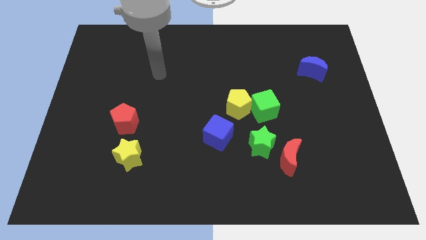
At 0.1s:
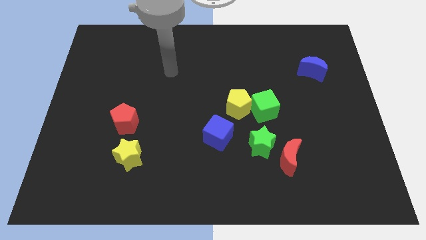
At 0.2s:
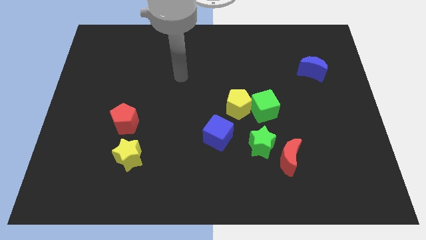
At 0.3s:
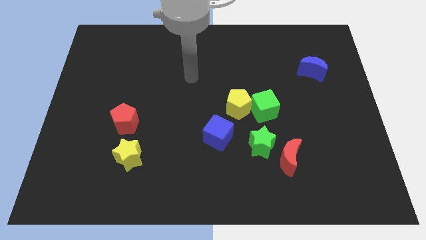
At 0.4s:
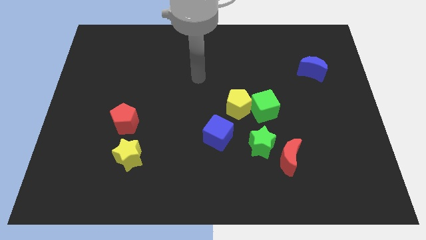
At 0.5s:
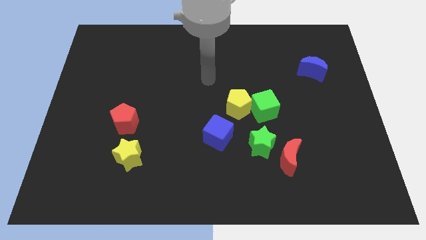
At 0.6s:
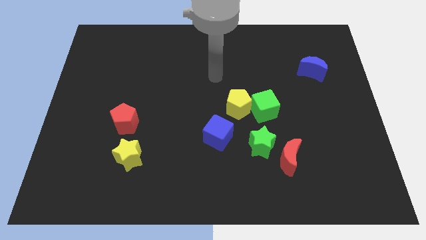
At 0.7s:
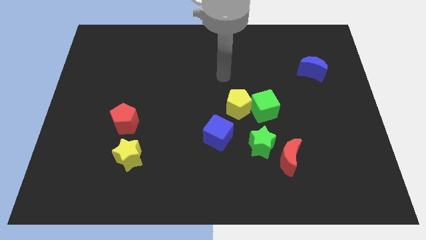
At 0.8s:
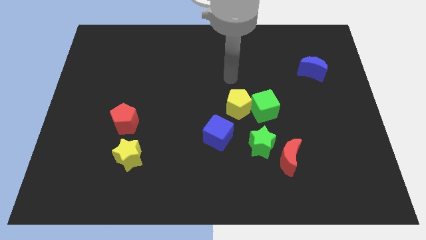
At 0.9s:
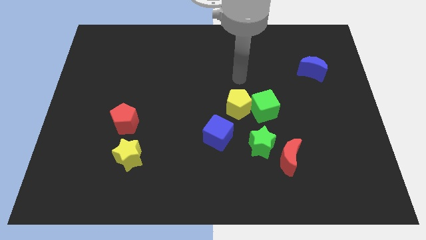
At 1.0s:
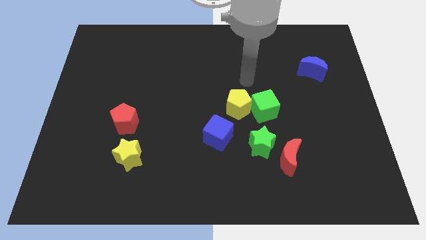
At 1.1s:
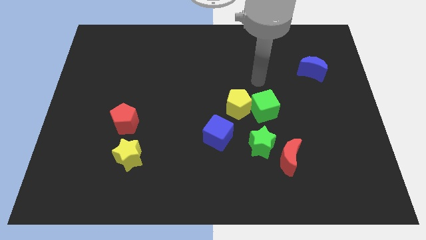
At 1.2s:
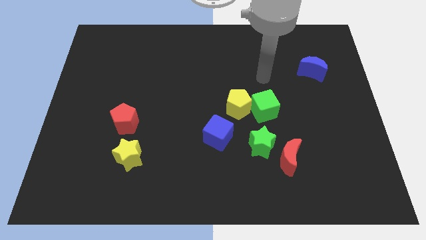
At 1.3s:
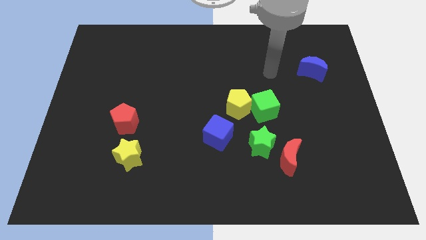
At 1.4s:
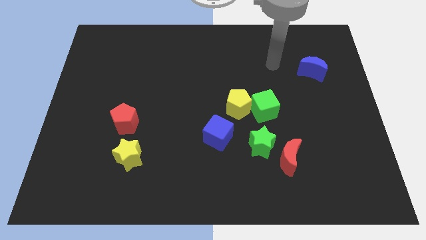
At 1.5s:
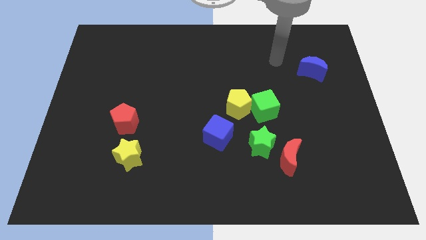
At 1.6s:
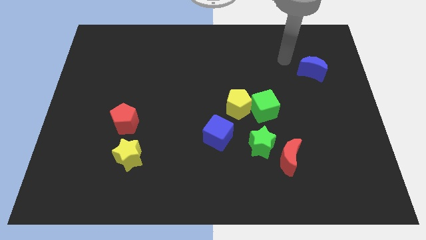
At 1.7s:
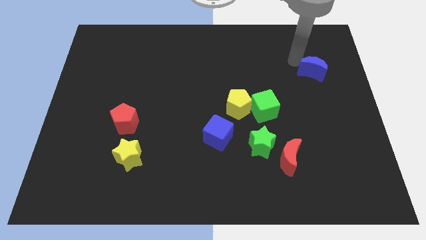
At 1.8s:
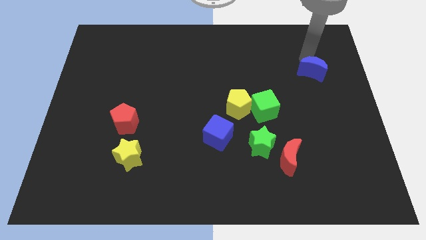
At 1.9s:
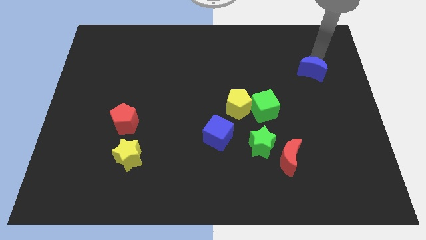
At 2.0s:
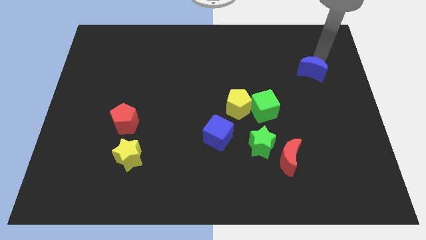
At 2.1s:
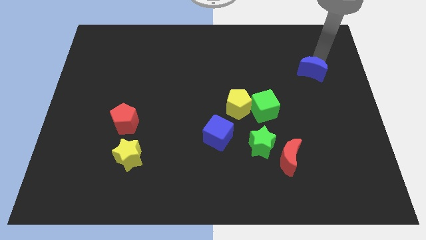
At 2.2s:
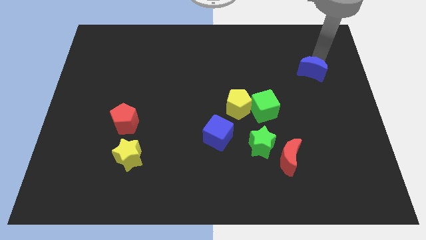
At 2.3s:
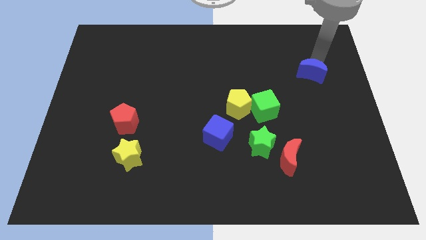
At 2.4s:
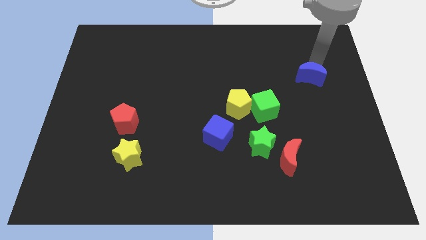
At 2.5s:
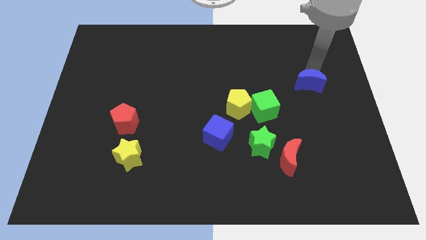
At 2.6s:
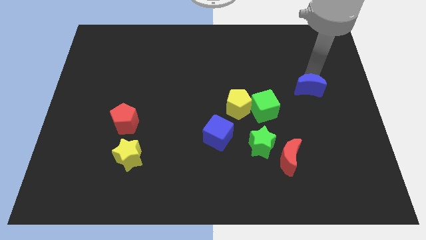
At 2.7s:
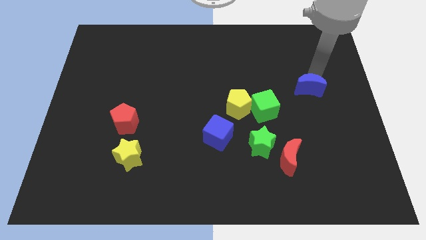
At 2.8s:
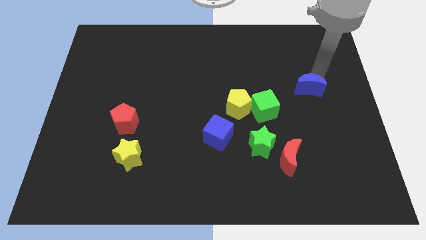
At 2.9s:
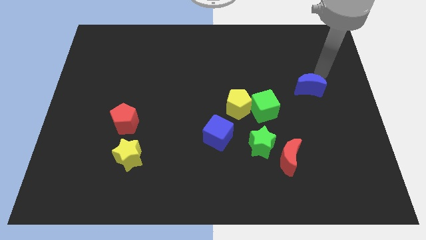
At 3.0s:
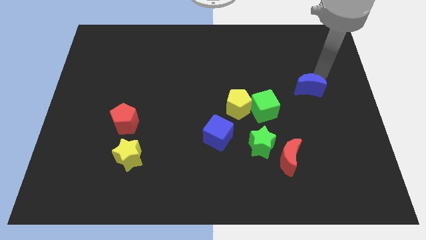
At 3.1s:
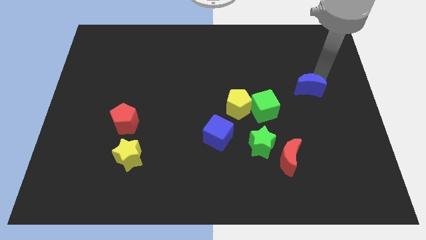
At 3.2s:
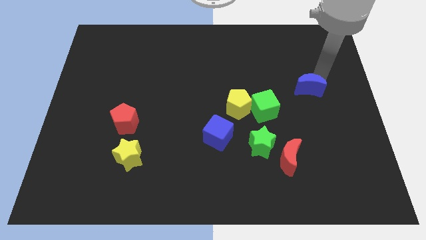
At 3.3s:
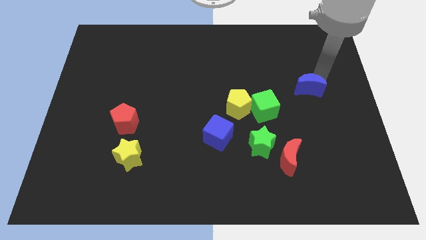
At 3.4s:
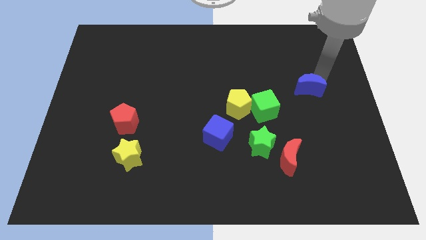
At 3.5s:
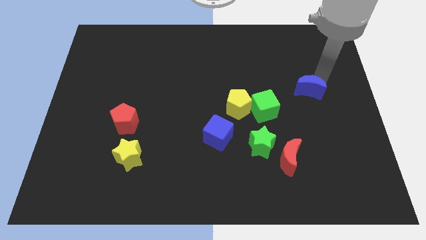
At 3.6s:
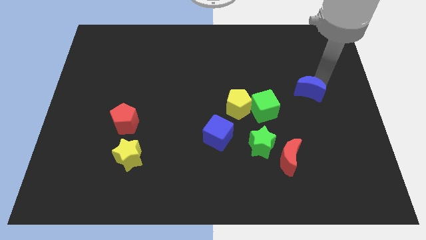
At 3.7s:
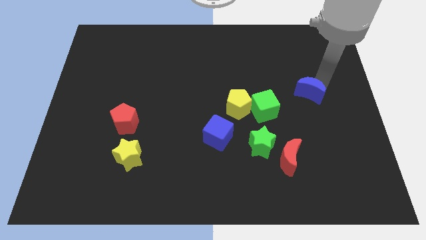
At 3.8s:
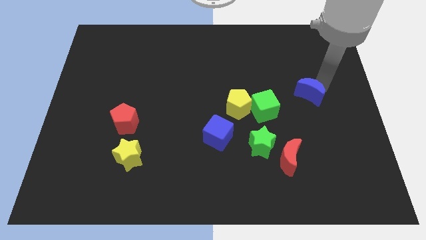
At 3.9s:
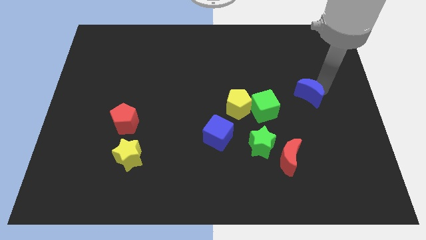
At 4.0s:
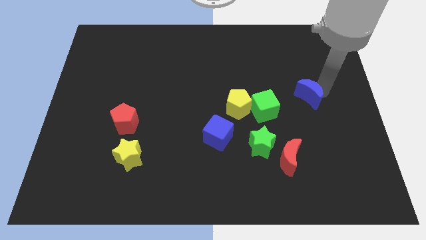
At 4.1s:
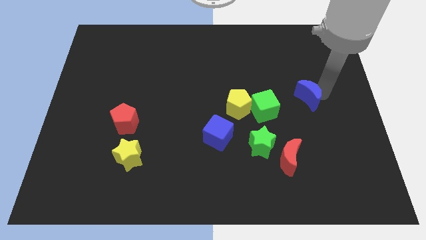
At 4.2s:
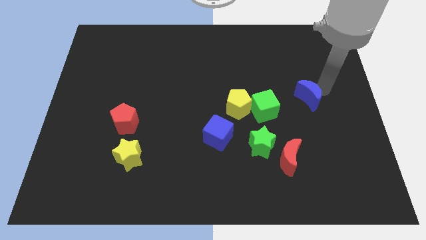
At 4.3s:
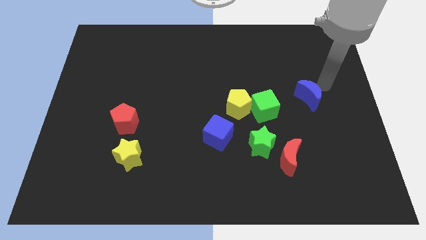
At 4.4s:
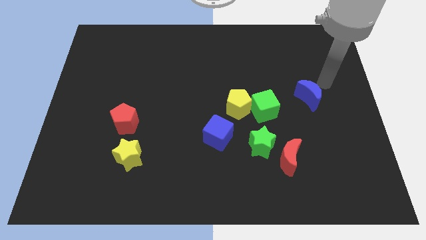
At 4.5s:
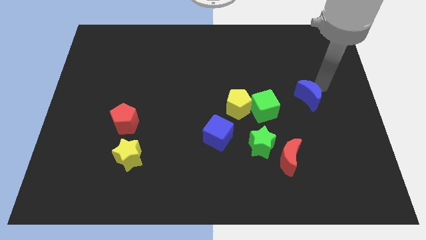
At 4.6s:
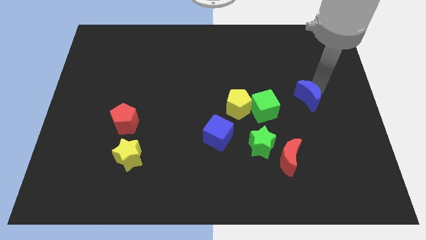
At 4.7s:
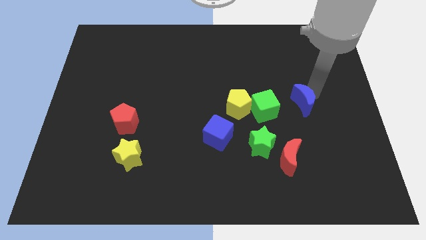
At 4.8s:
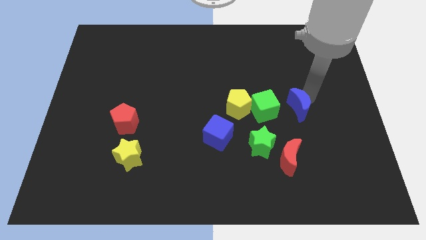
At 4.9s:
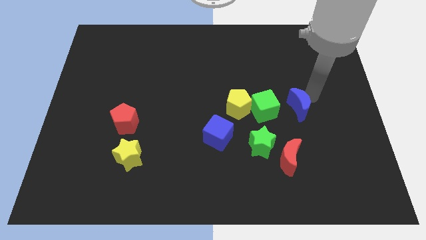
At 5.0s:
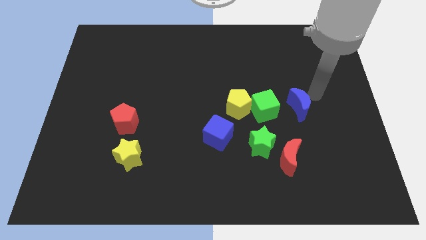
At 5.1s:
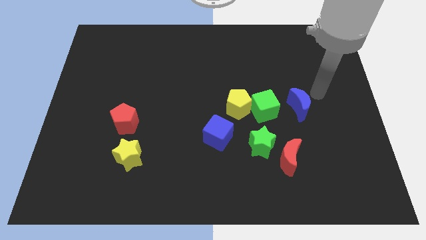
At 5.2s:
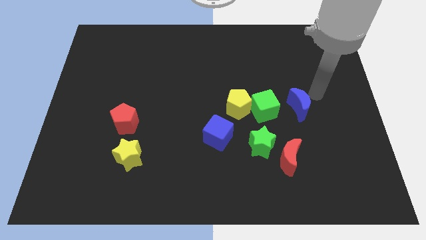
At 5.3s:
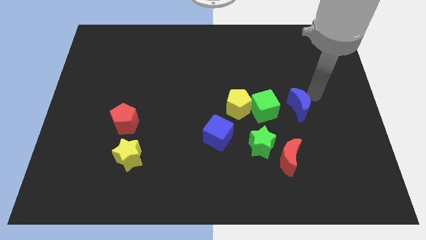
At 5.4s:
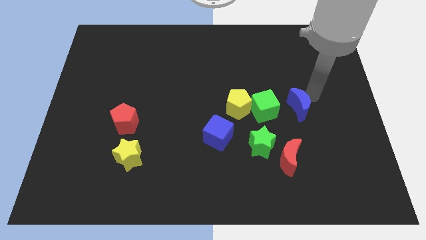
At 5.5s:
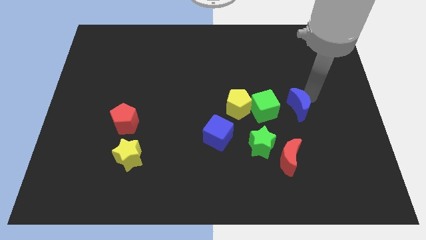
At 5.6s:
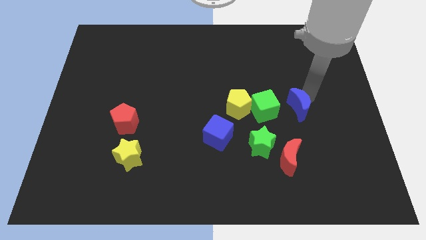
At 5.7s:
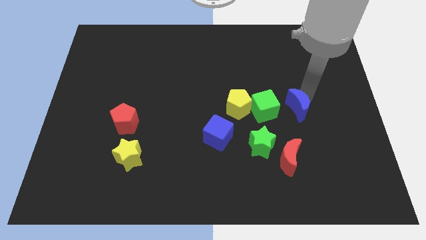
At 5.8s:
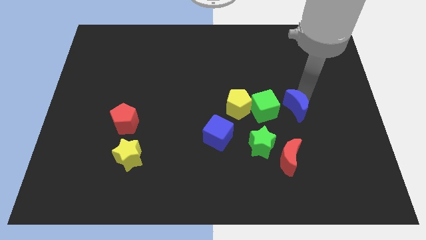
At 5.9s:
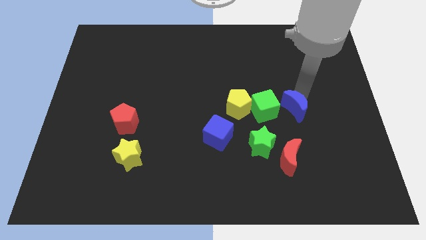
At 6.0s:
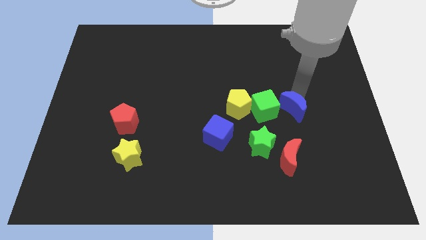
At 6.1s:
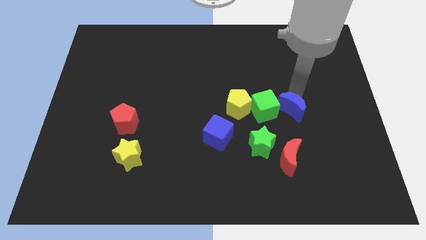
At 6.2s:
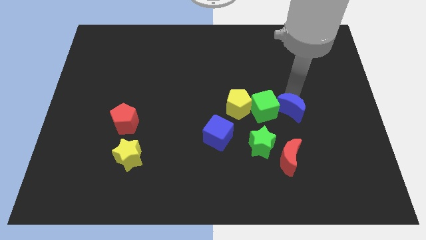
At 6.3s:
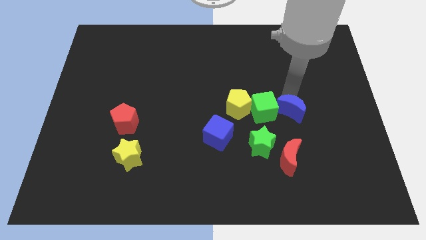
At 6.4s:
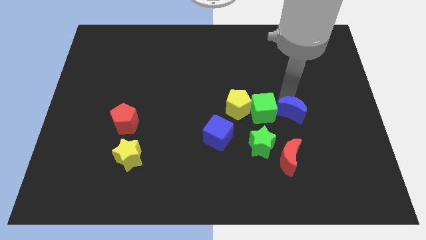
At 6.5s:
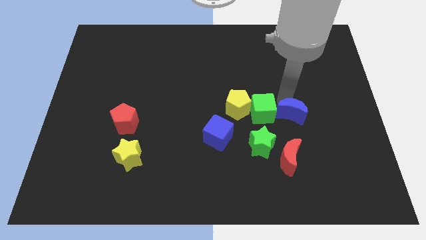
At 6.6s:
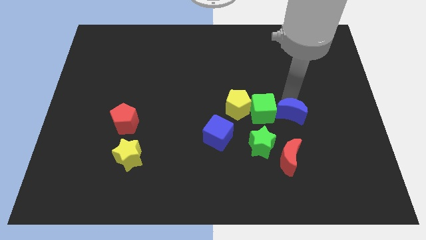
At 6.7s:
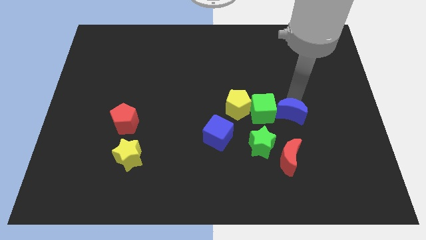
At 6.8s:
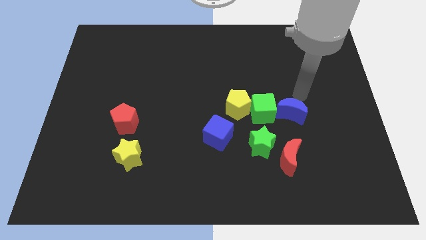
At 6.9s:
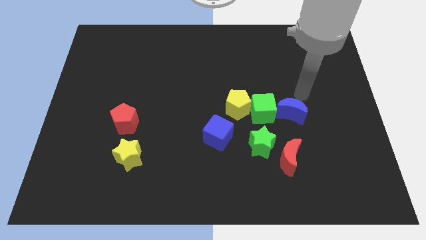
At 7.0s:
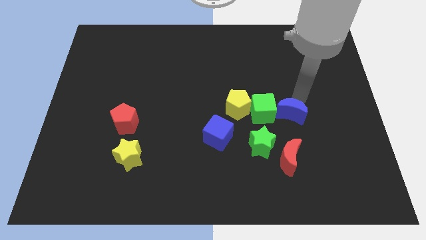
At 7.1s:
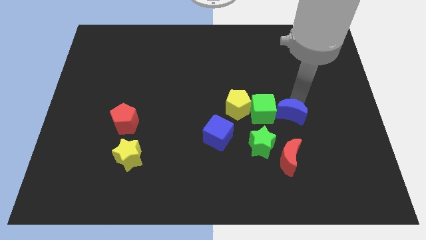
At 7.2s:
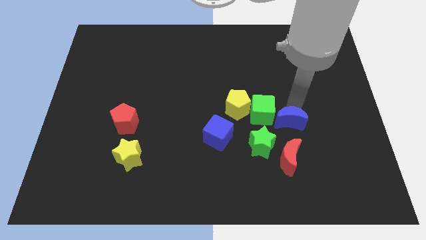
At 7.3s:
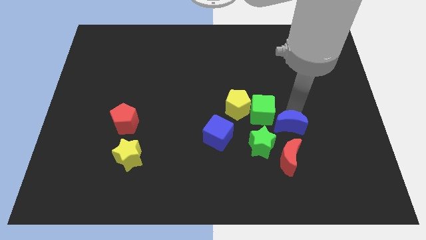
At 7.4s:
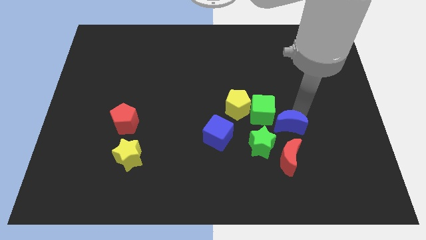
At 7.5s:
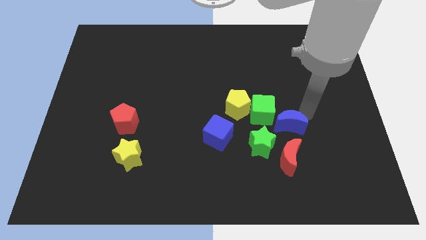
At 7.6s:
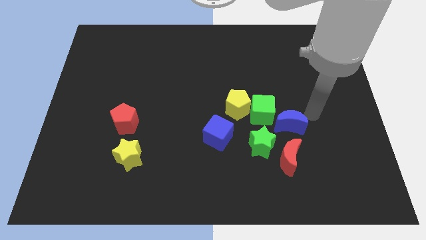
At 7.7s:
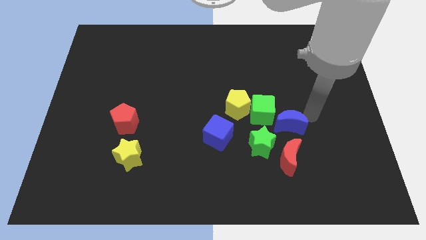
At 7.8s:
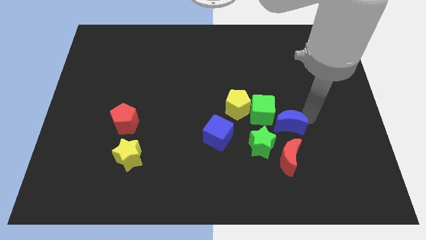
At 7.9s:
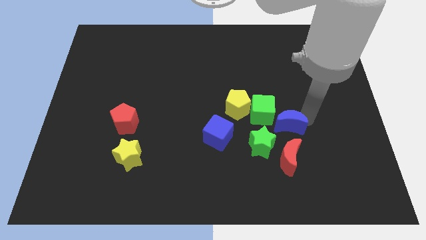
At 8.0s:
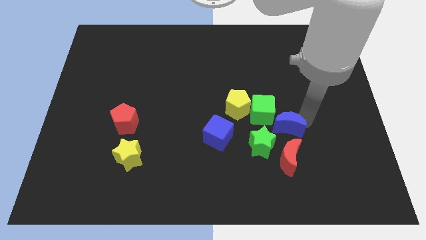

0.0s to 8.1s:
put the blue moon just right of the blue cube
